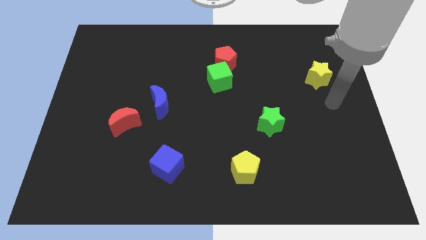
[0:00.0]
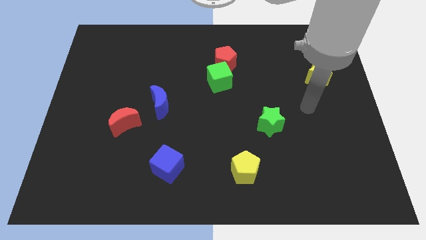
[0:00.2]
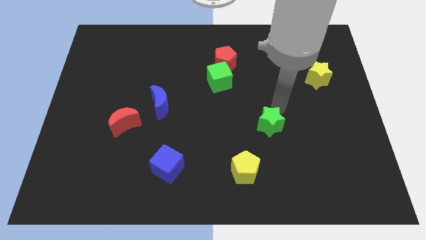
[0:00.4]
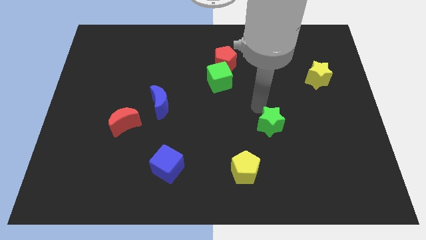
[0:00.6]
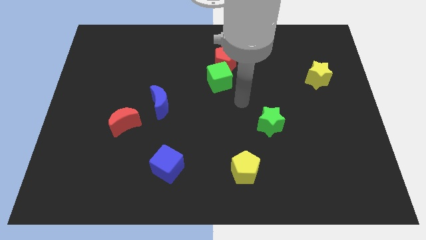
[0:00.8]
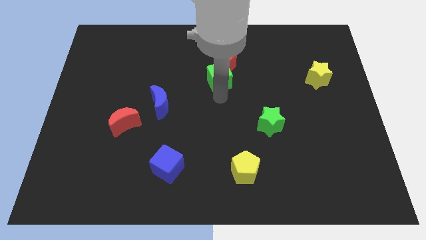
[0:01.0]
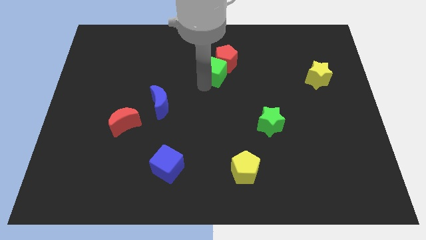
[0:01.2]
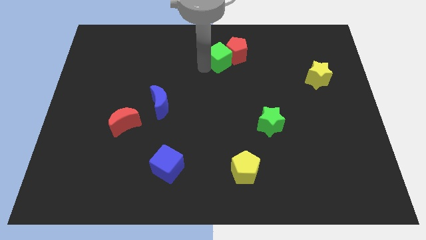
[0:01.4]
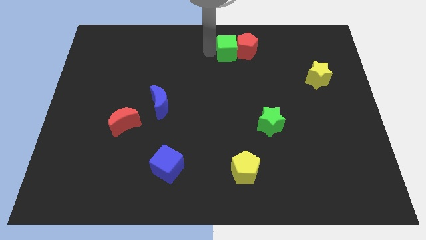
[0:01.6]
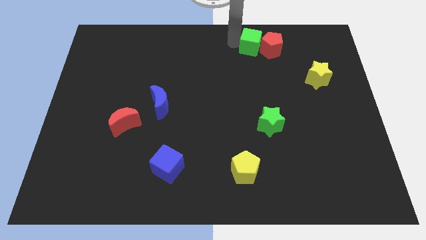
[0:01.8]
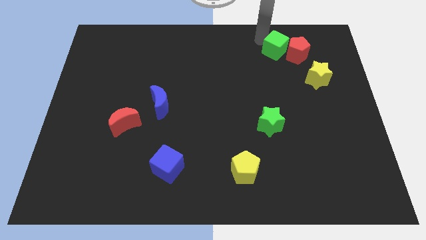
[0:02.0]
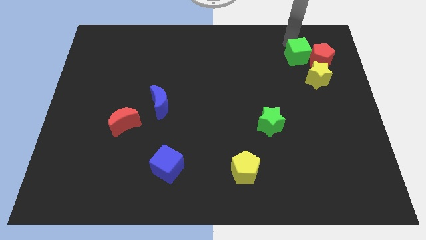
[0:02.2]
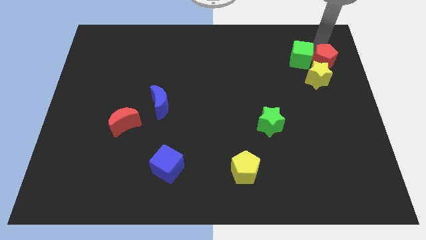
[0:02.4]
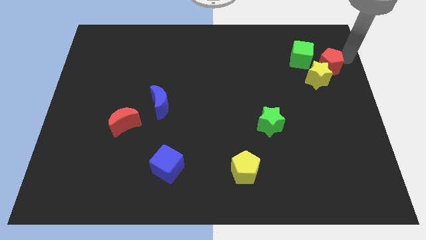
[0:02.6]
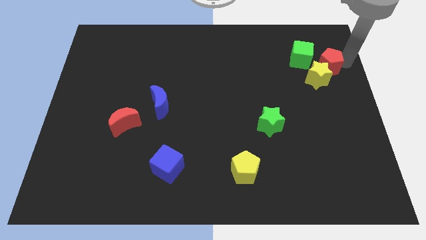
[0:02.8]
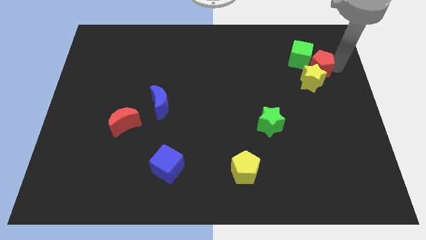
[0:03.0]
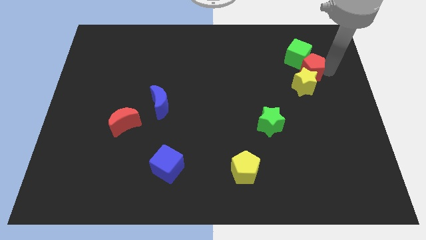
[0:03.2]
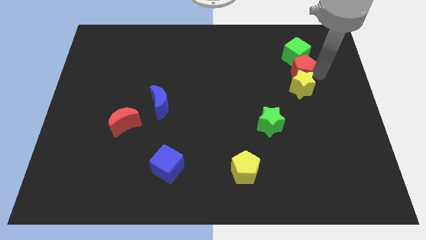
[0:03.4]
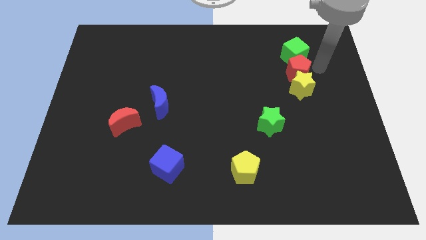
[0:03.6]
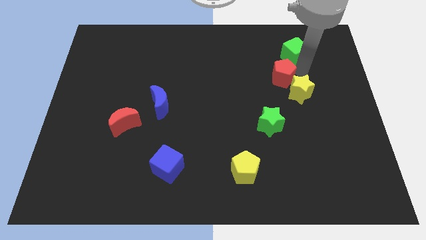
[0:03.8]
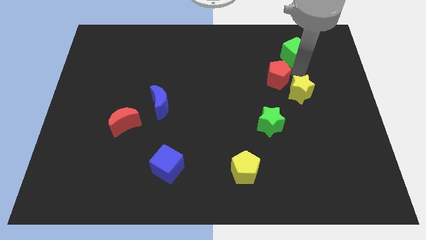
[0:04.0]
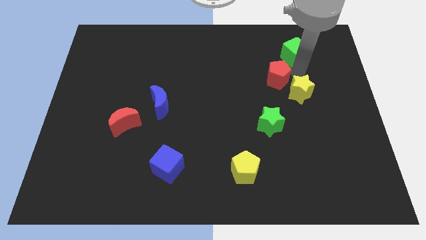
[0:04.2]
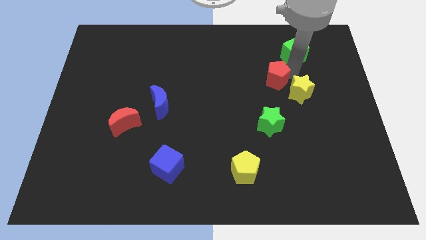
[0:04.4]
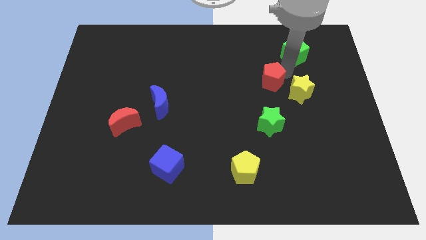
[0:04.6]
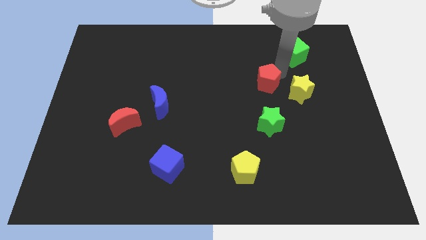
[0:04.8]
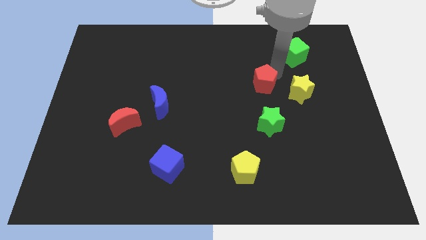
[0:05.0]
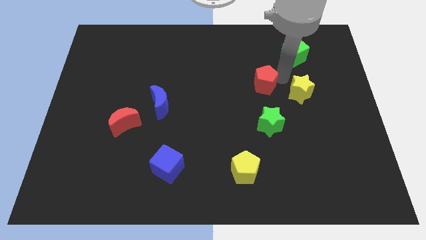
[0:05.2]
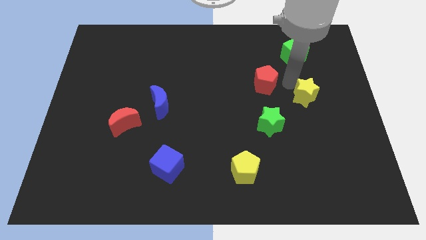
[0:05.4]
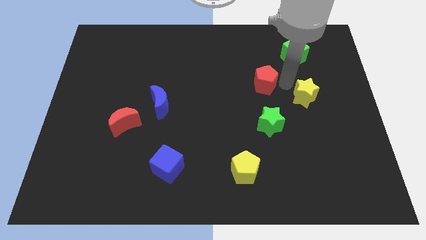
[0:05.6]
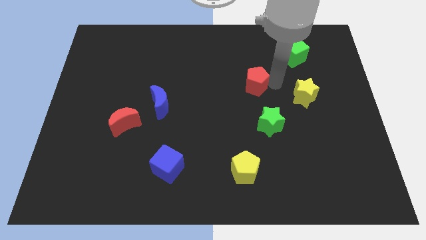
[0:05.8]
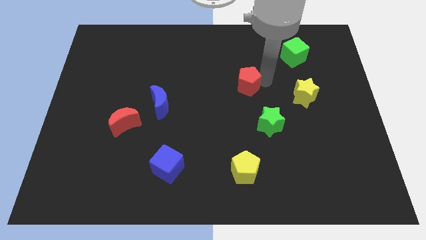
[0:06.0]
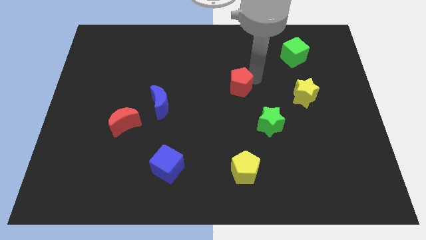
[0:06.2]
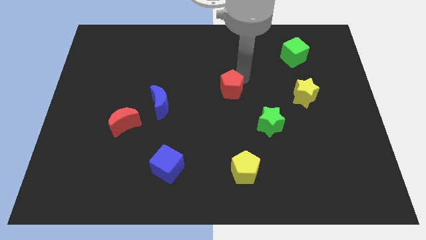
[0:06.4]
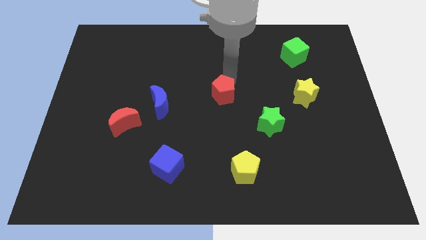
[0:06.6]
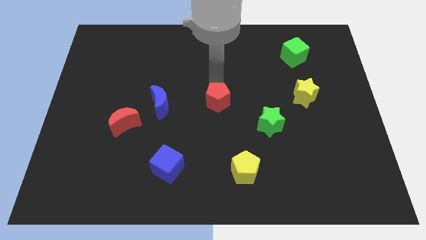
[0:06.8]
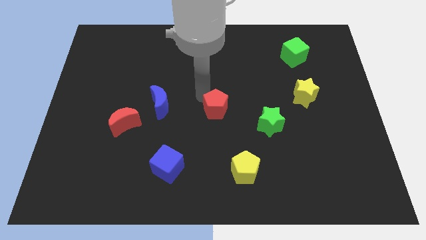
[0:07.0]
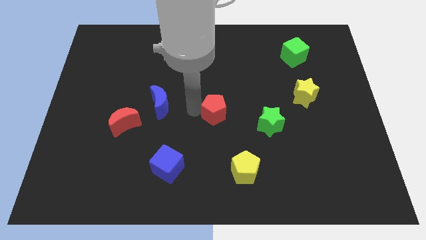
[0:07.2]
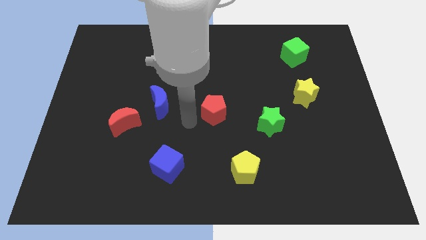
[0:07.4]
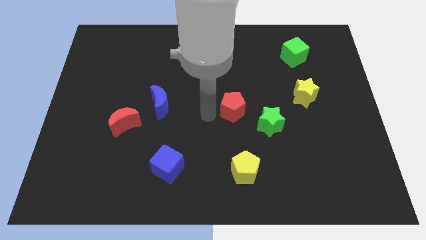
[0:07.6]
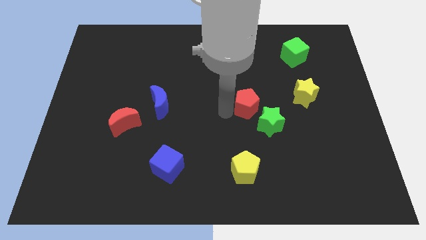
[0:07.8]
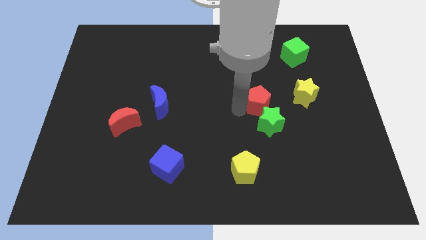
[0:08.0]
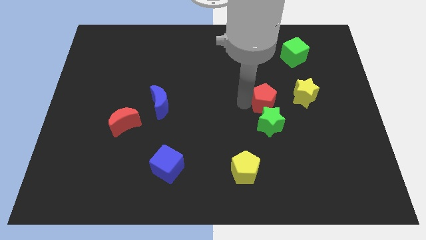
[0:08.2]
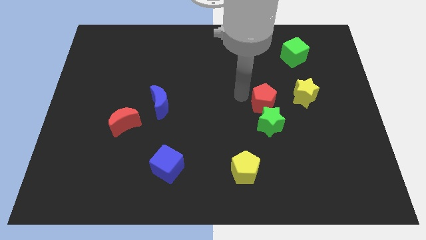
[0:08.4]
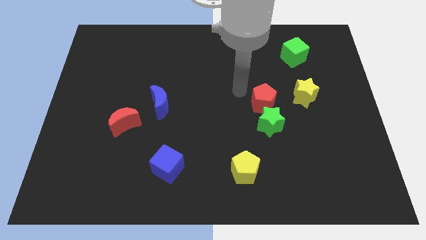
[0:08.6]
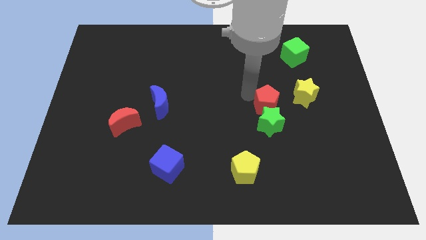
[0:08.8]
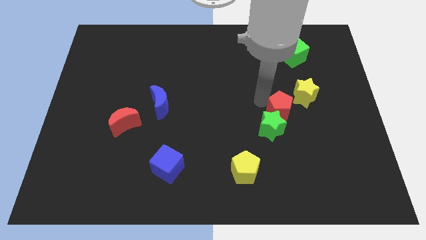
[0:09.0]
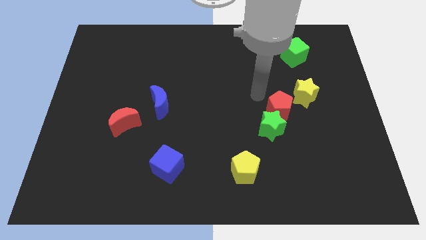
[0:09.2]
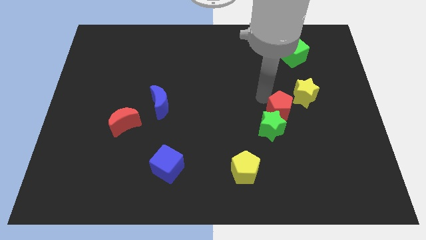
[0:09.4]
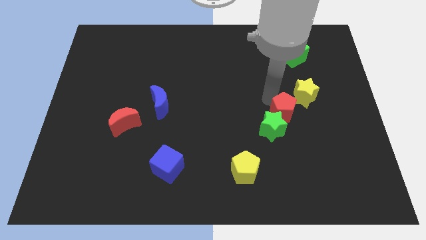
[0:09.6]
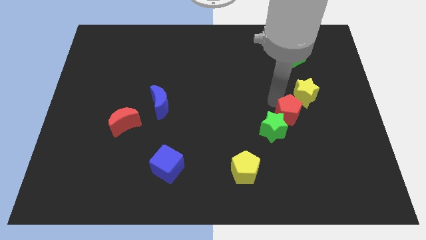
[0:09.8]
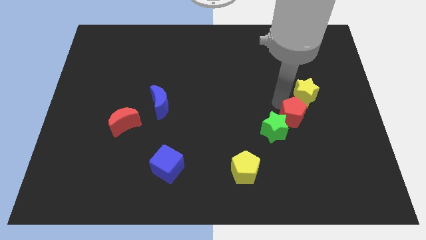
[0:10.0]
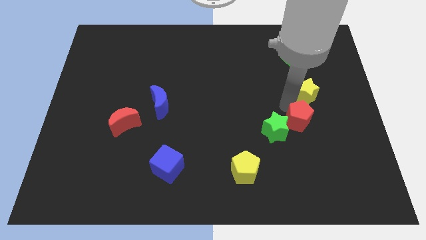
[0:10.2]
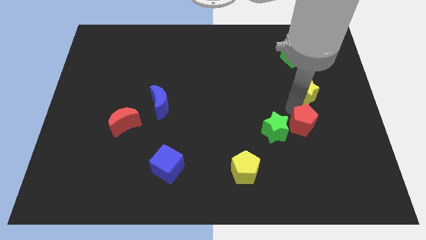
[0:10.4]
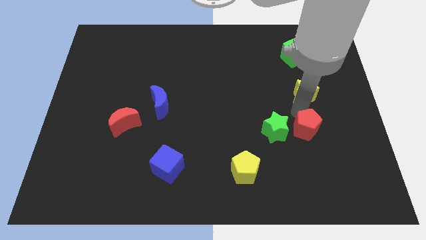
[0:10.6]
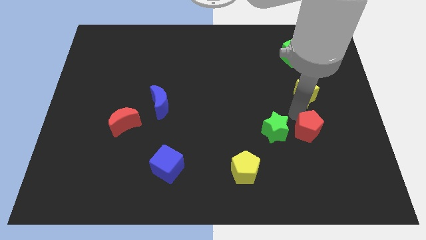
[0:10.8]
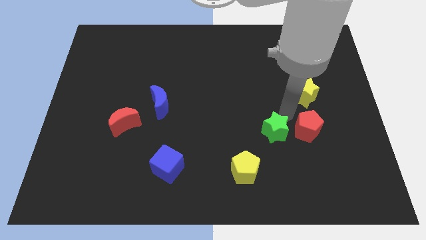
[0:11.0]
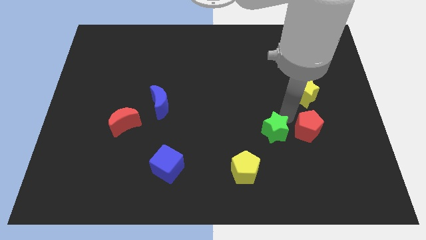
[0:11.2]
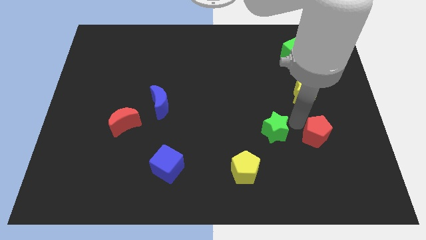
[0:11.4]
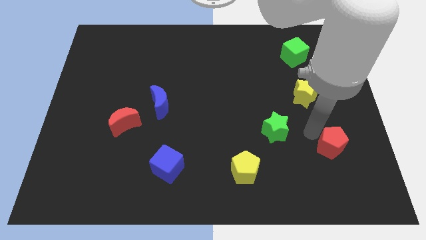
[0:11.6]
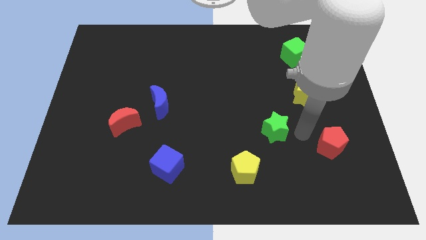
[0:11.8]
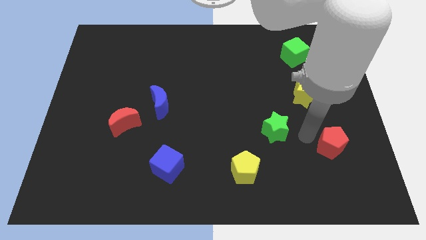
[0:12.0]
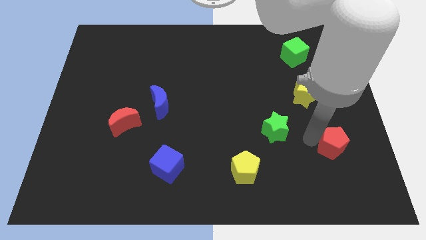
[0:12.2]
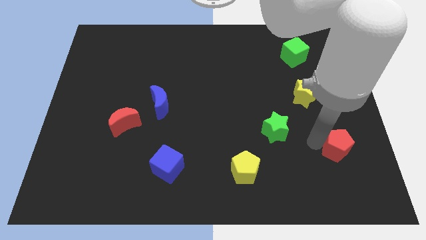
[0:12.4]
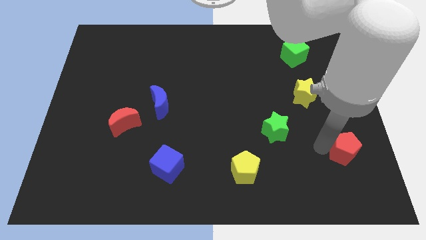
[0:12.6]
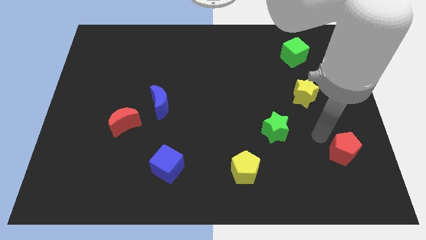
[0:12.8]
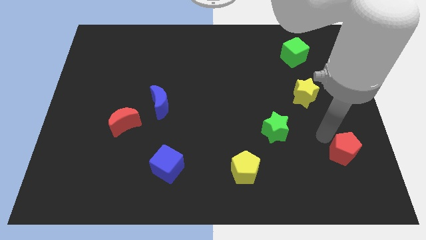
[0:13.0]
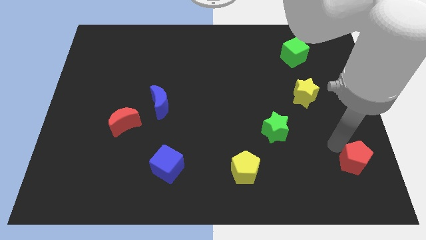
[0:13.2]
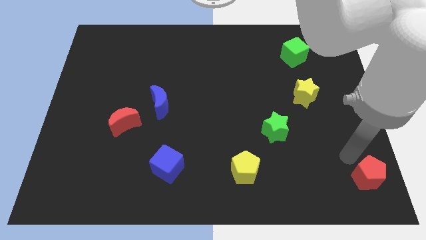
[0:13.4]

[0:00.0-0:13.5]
move the red pentagon to the bottom right corner
